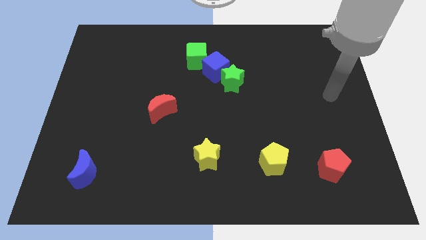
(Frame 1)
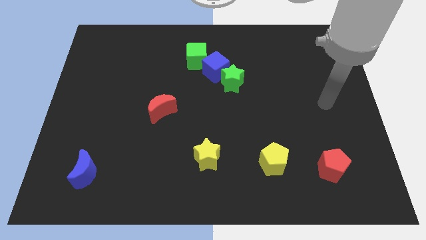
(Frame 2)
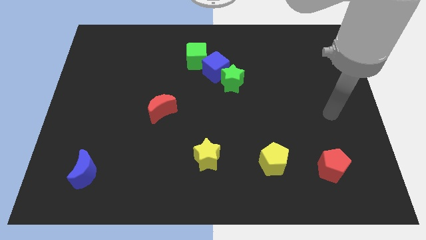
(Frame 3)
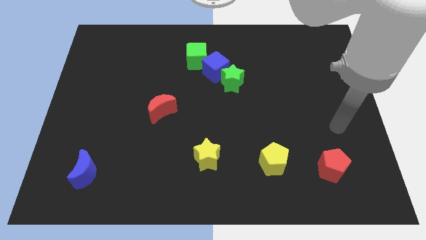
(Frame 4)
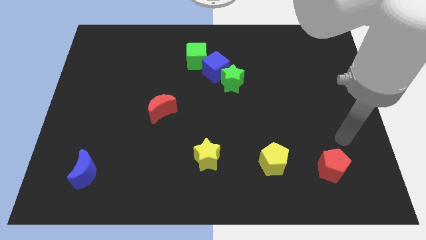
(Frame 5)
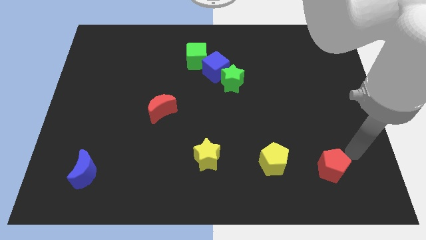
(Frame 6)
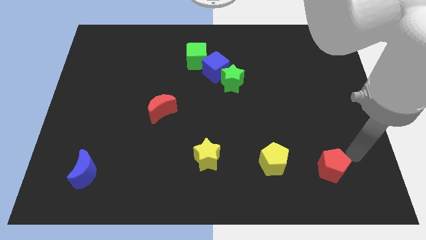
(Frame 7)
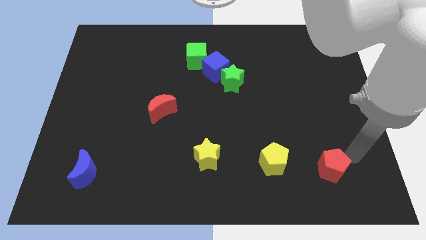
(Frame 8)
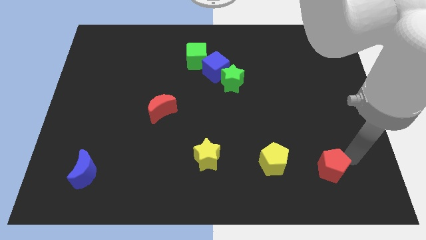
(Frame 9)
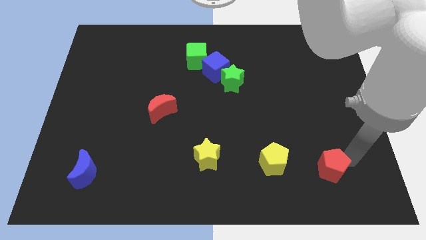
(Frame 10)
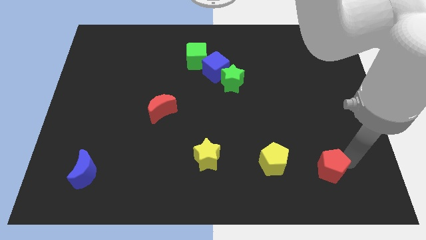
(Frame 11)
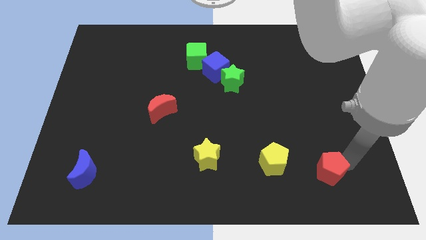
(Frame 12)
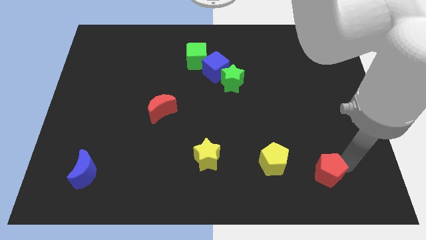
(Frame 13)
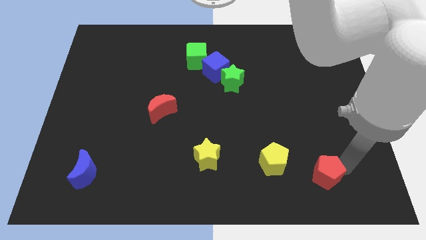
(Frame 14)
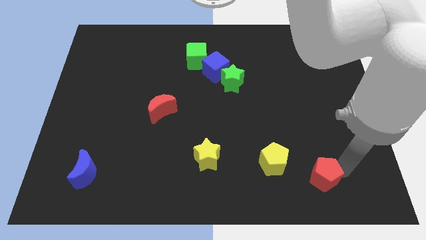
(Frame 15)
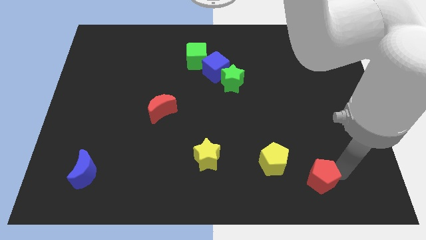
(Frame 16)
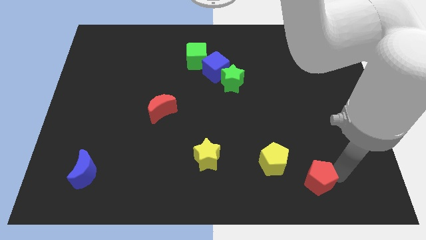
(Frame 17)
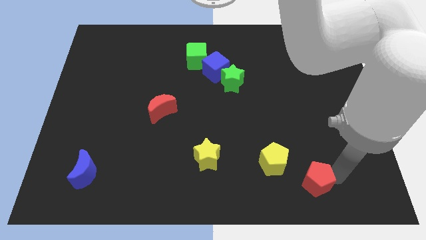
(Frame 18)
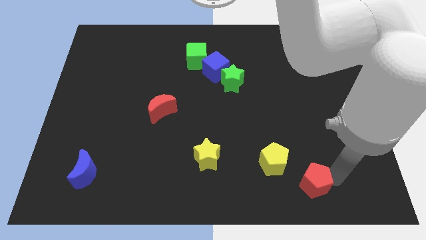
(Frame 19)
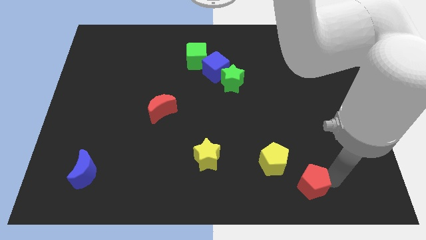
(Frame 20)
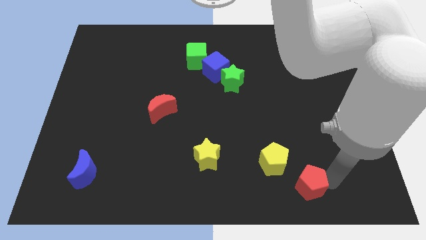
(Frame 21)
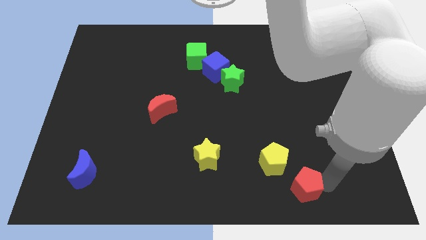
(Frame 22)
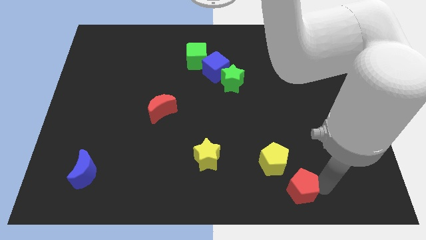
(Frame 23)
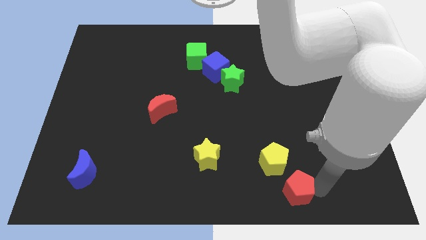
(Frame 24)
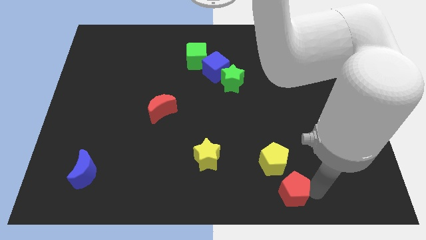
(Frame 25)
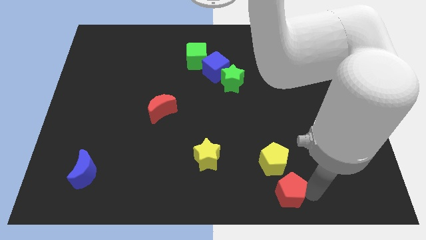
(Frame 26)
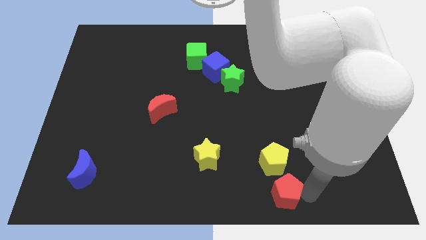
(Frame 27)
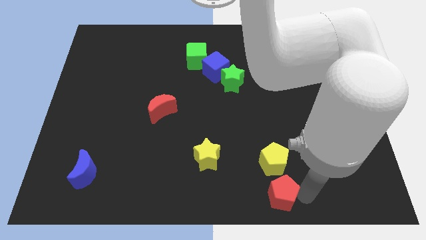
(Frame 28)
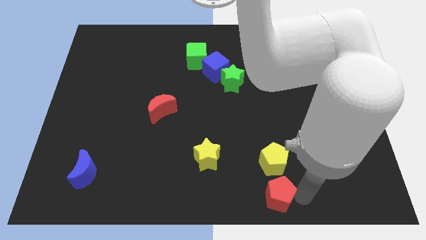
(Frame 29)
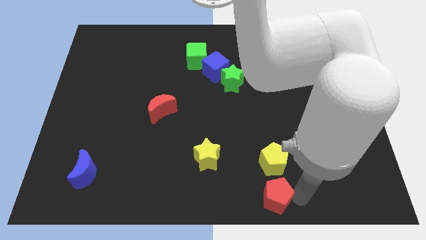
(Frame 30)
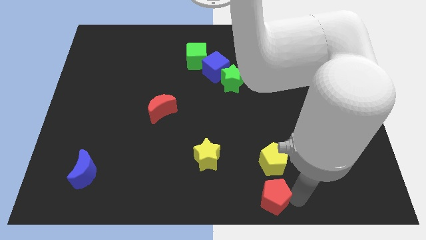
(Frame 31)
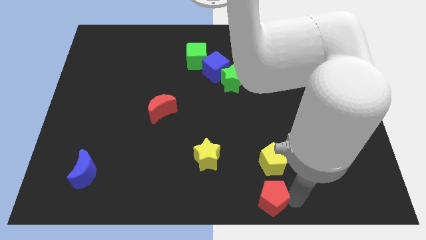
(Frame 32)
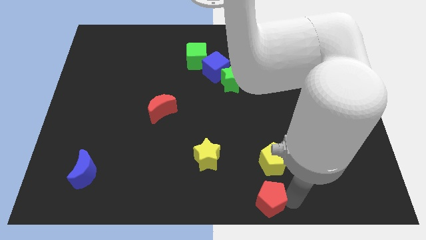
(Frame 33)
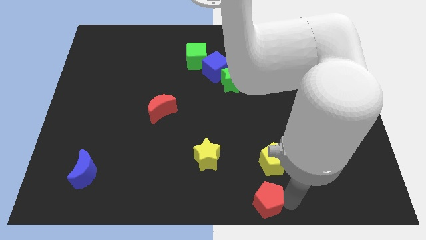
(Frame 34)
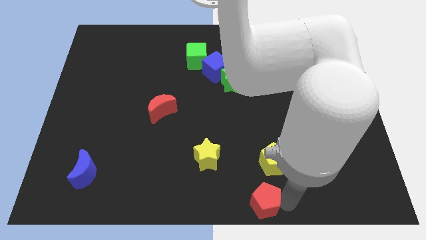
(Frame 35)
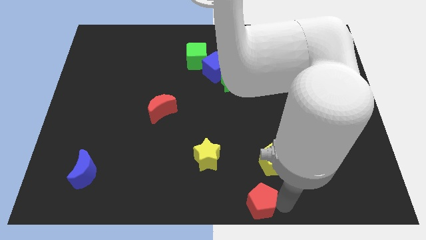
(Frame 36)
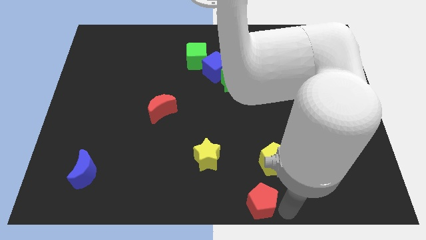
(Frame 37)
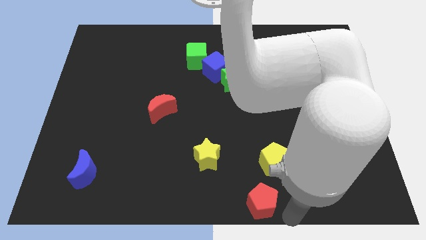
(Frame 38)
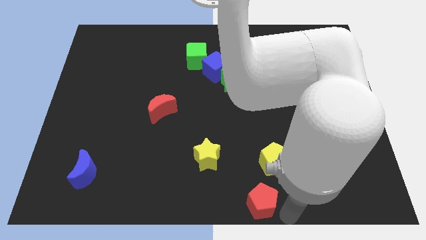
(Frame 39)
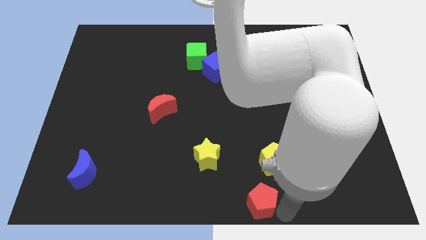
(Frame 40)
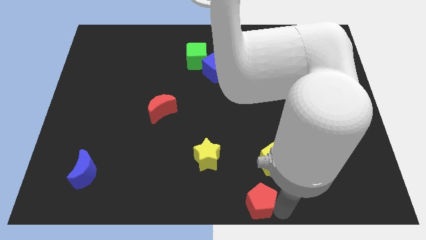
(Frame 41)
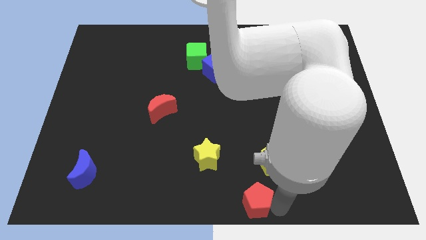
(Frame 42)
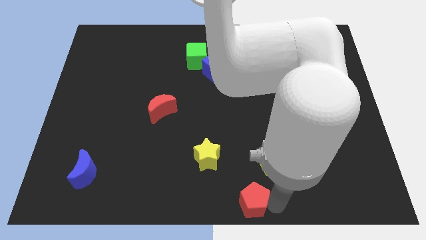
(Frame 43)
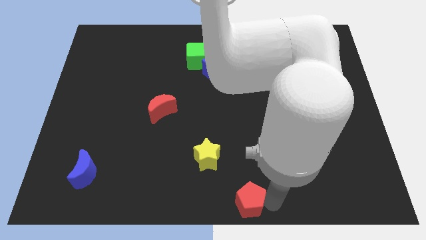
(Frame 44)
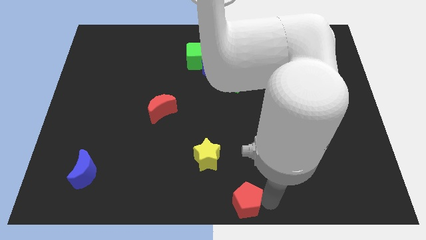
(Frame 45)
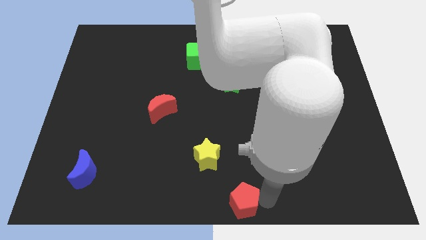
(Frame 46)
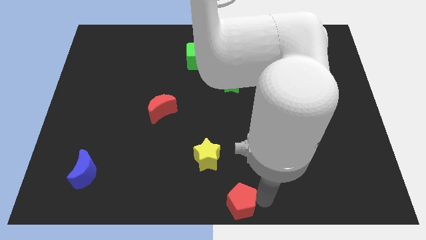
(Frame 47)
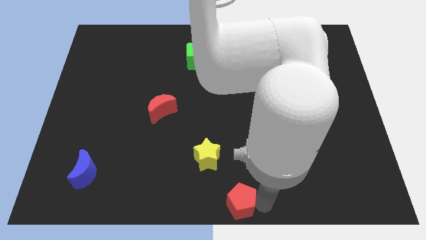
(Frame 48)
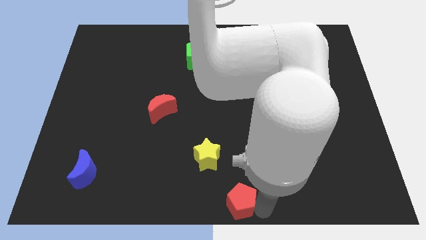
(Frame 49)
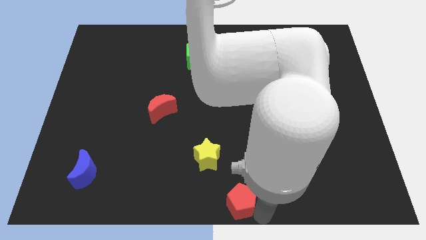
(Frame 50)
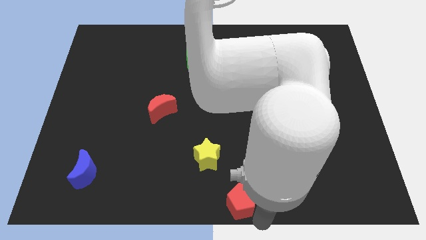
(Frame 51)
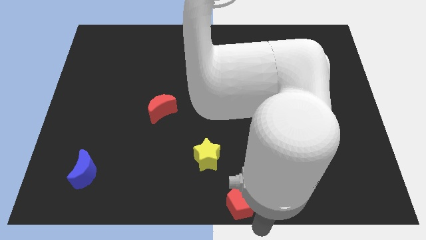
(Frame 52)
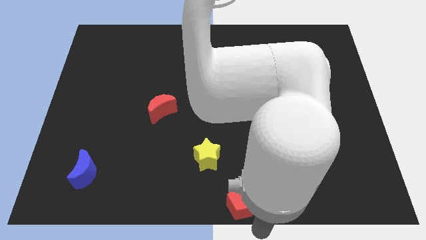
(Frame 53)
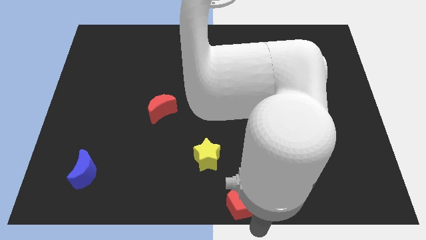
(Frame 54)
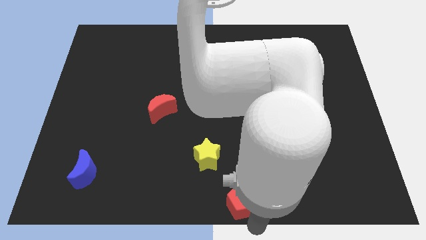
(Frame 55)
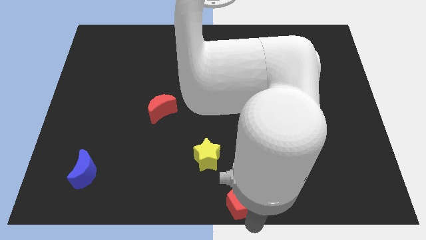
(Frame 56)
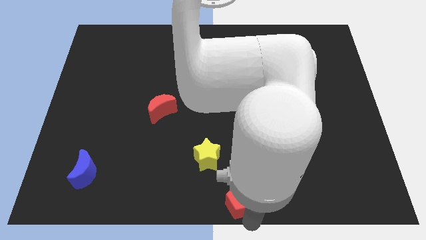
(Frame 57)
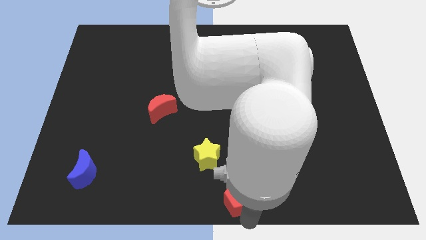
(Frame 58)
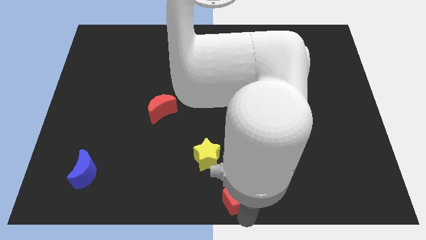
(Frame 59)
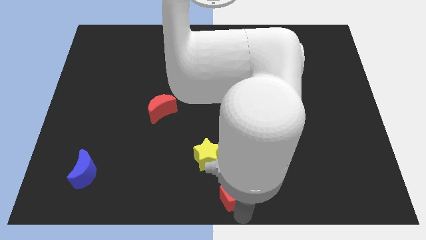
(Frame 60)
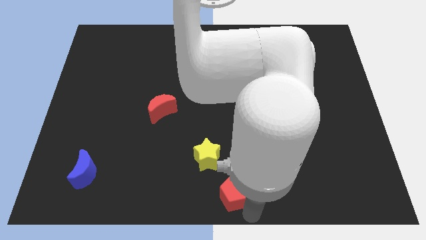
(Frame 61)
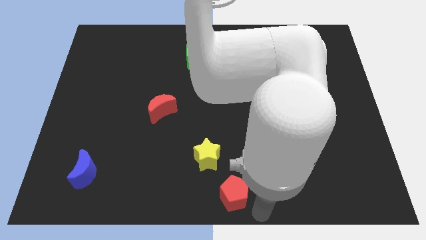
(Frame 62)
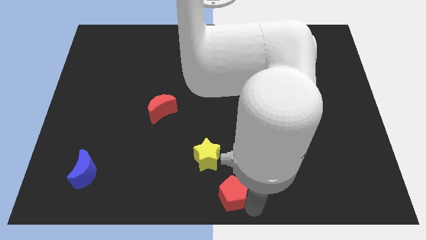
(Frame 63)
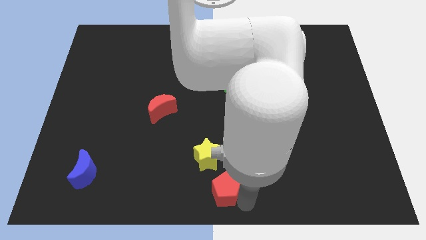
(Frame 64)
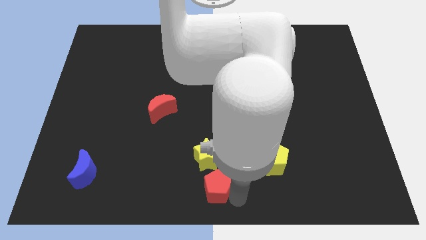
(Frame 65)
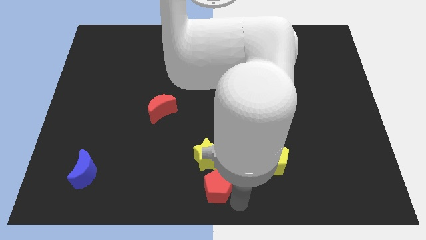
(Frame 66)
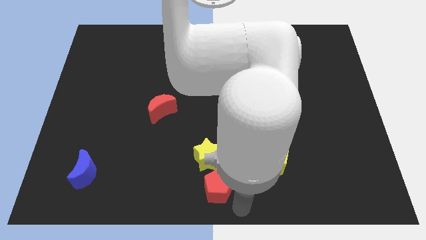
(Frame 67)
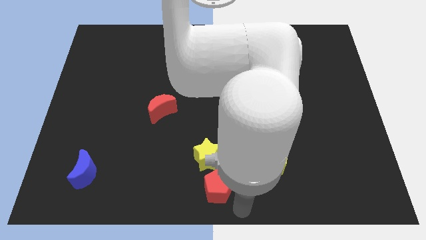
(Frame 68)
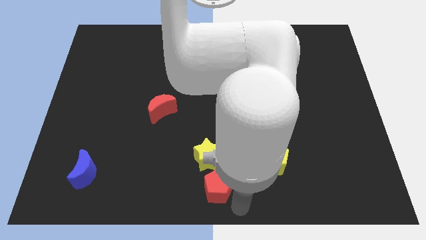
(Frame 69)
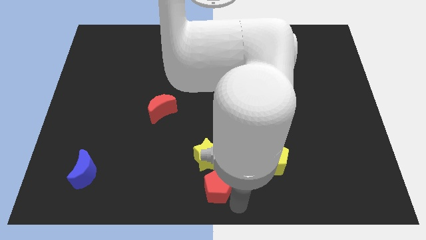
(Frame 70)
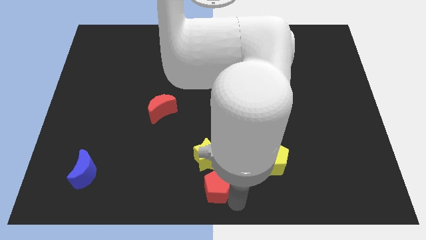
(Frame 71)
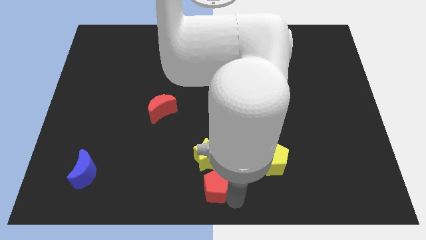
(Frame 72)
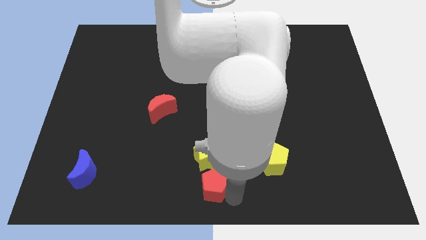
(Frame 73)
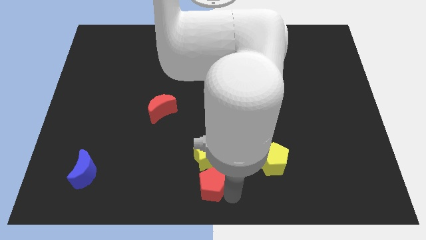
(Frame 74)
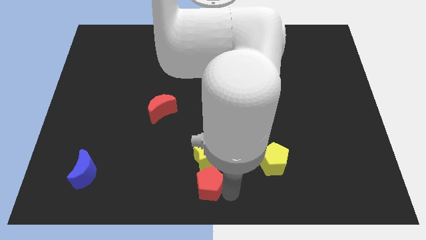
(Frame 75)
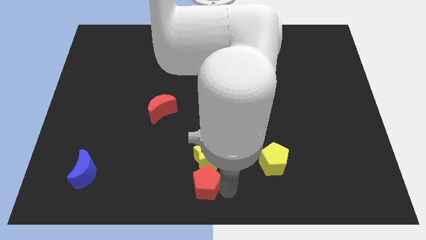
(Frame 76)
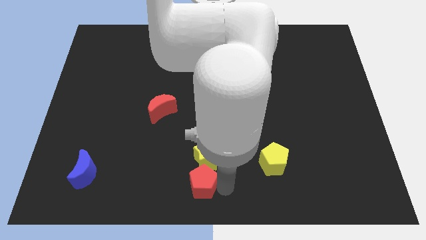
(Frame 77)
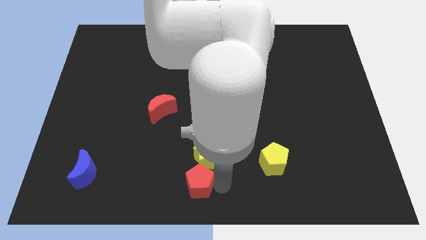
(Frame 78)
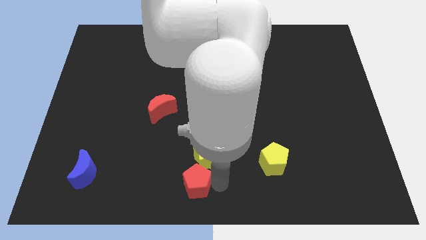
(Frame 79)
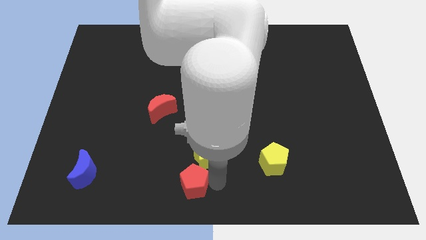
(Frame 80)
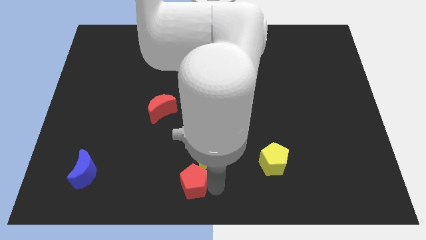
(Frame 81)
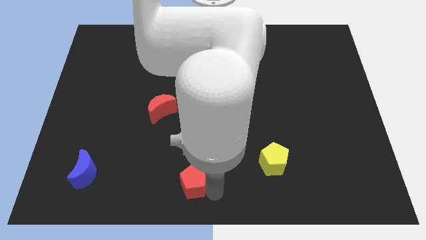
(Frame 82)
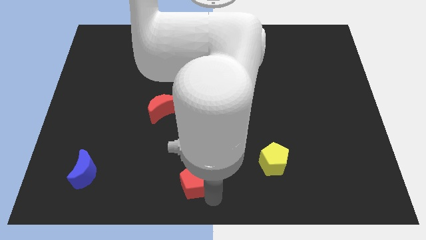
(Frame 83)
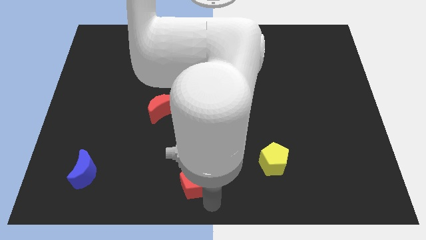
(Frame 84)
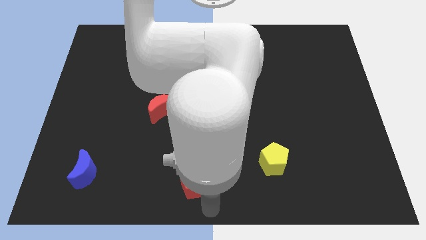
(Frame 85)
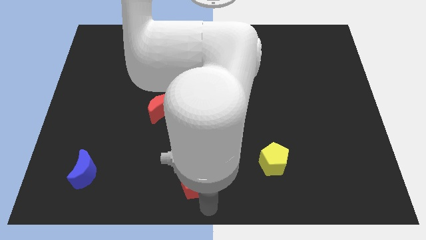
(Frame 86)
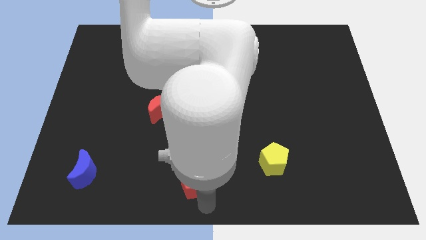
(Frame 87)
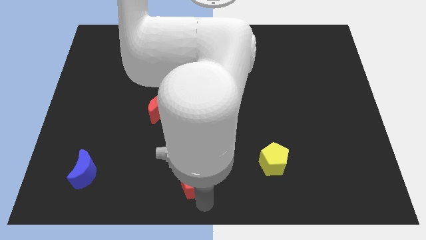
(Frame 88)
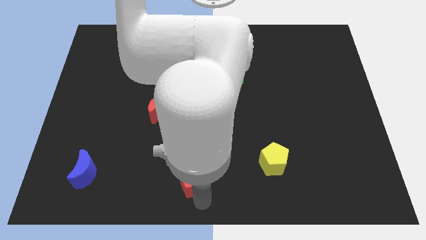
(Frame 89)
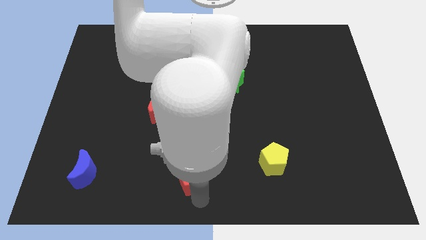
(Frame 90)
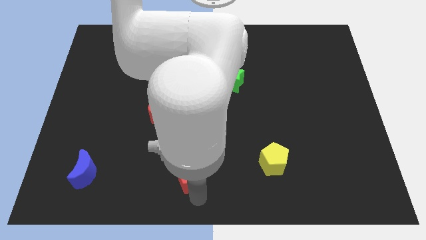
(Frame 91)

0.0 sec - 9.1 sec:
put the red pentagon just left of the yellow star
